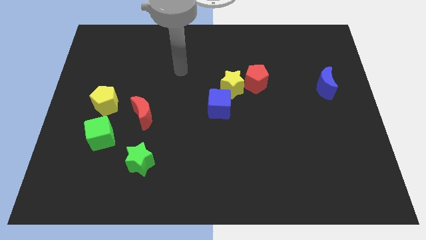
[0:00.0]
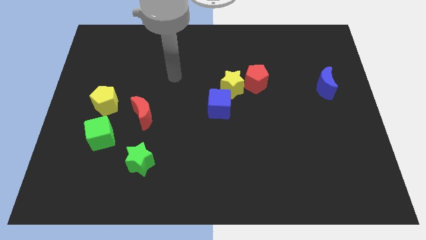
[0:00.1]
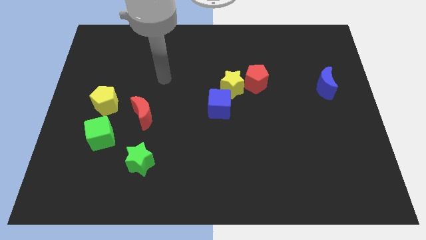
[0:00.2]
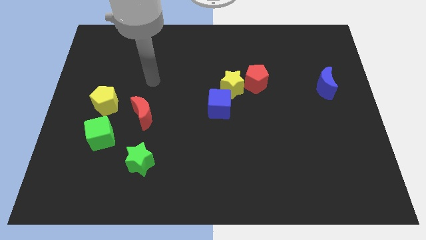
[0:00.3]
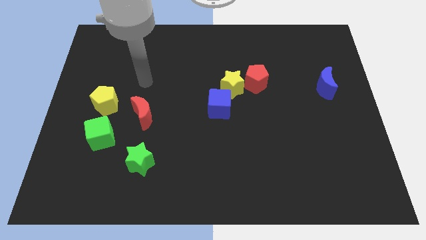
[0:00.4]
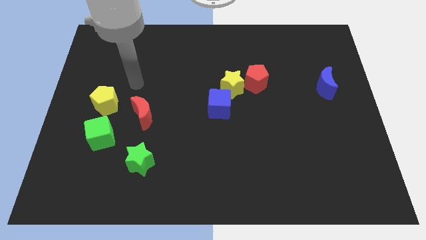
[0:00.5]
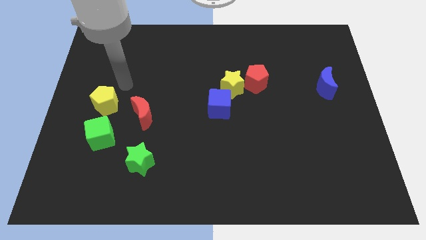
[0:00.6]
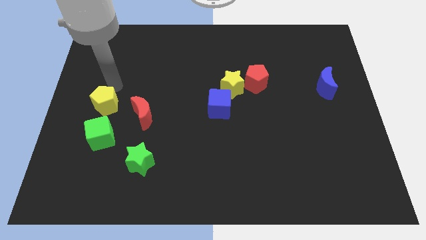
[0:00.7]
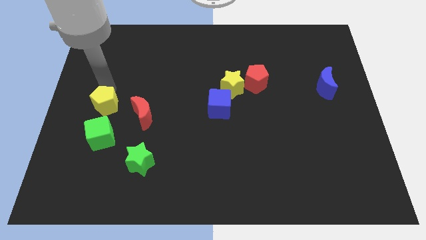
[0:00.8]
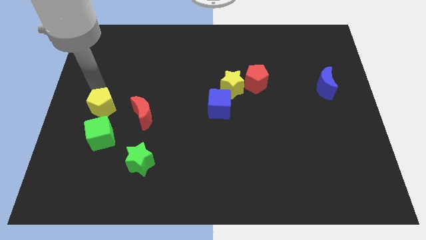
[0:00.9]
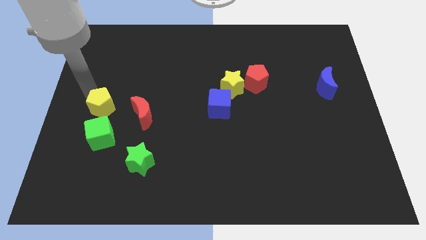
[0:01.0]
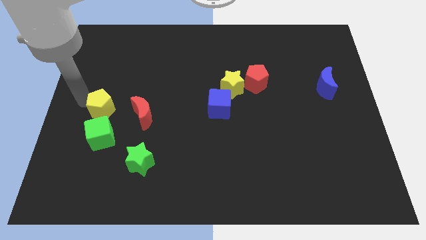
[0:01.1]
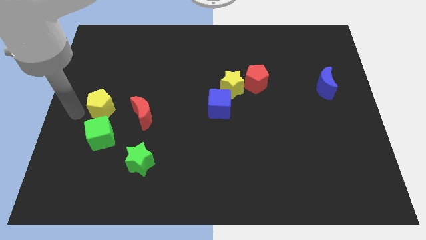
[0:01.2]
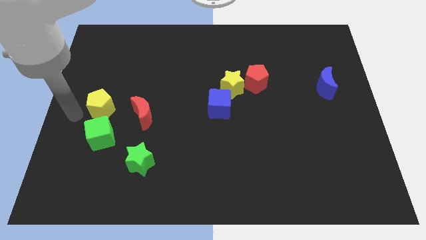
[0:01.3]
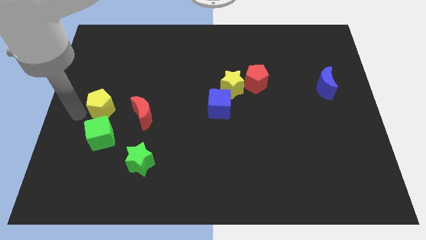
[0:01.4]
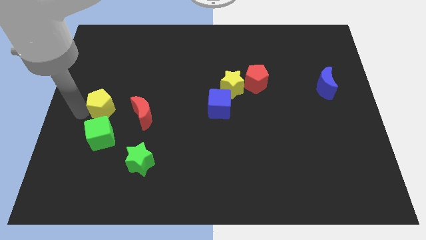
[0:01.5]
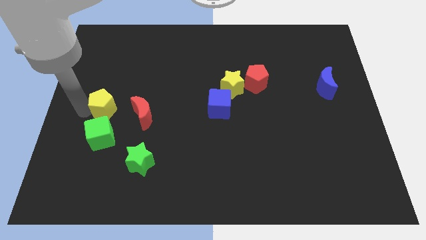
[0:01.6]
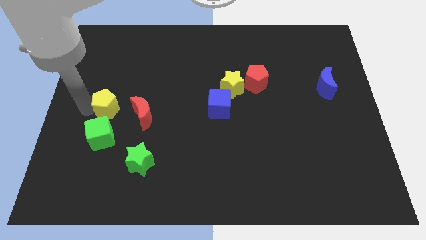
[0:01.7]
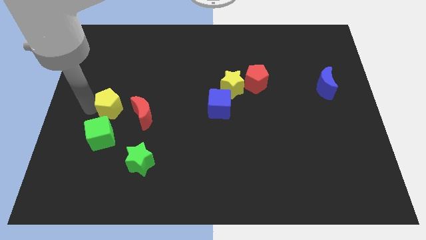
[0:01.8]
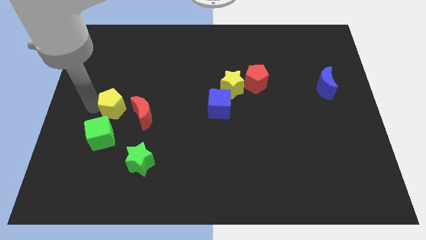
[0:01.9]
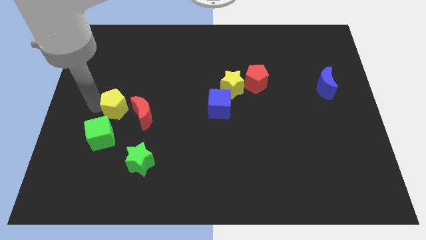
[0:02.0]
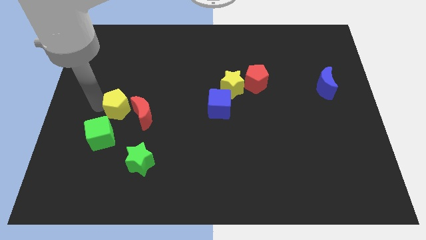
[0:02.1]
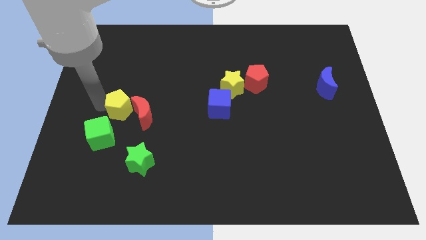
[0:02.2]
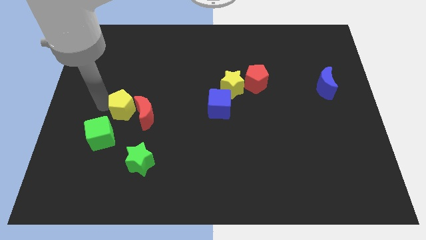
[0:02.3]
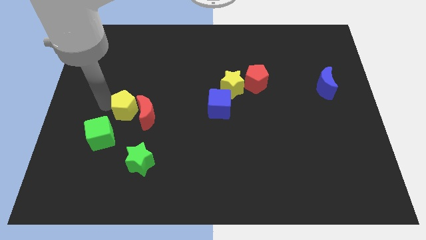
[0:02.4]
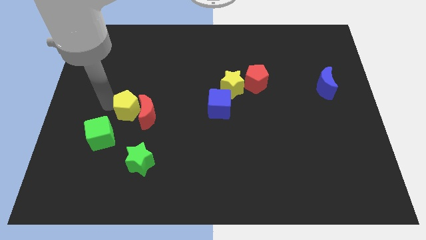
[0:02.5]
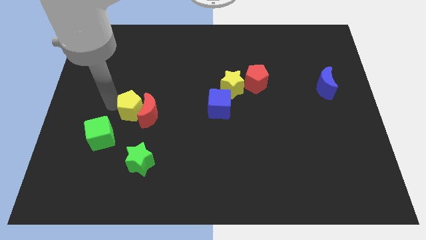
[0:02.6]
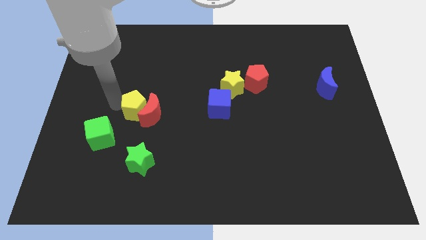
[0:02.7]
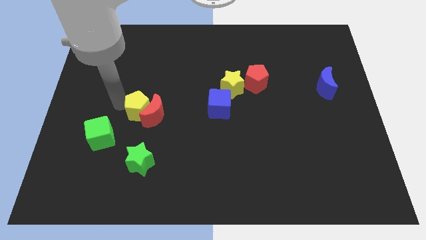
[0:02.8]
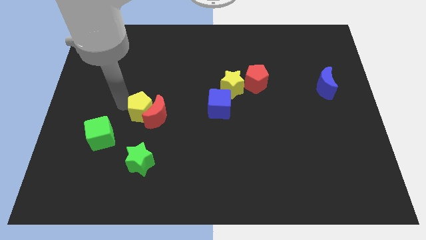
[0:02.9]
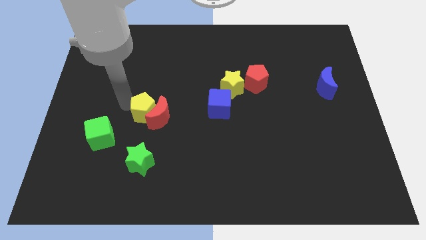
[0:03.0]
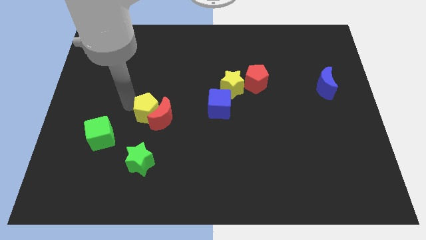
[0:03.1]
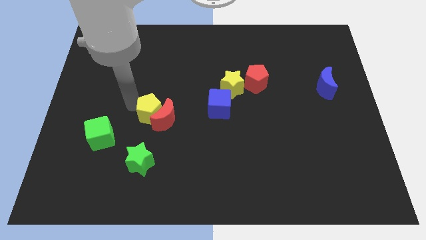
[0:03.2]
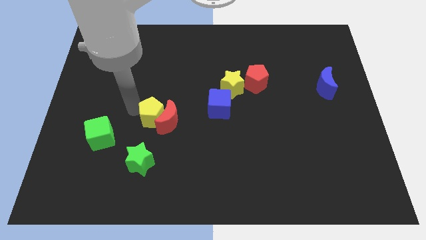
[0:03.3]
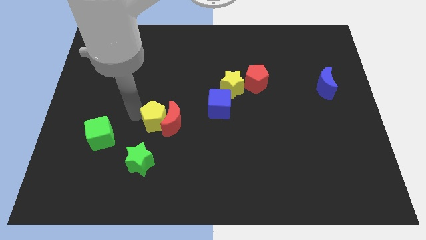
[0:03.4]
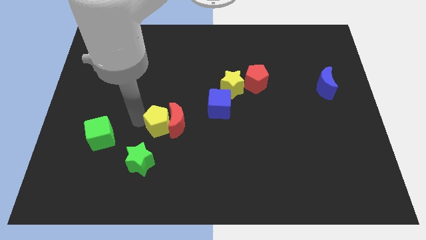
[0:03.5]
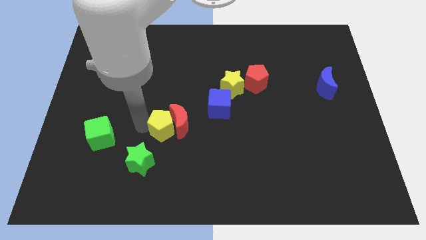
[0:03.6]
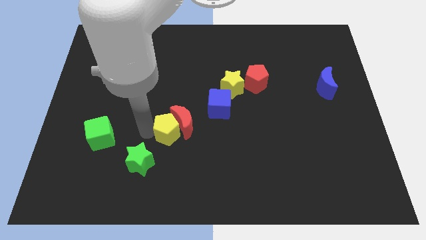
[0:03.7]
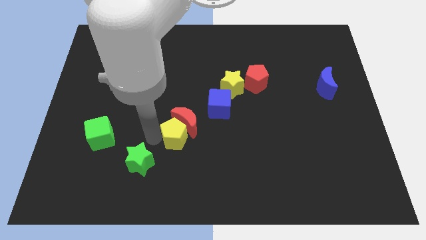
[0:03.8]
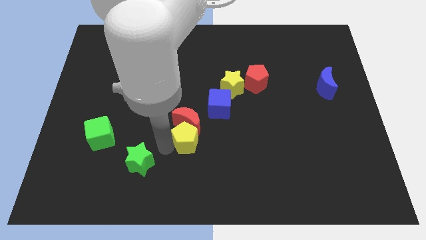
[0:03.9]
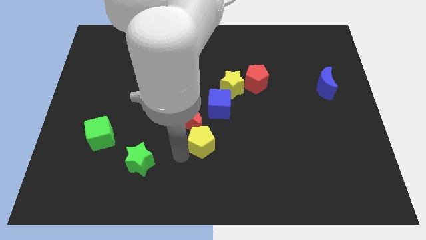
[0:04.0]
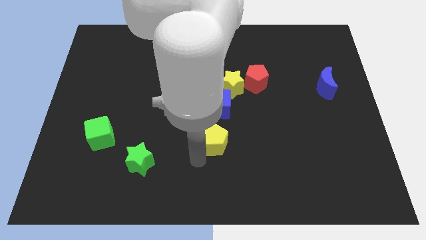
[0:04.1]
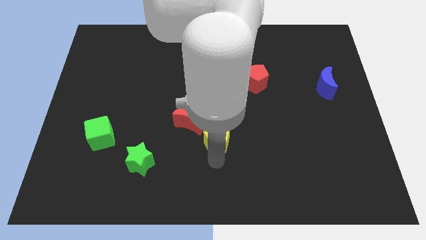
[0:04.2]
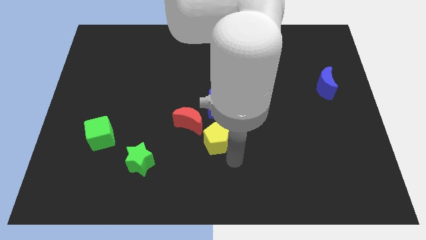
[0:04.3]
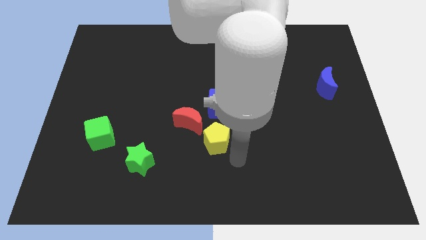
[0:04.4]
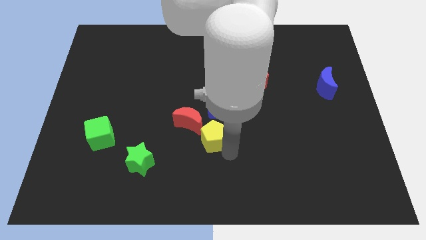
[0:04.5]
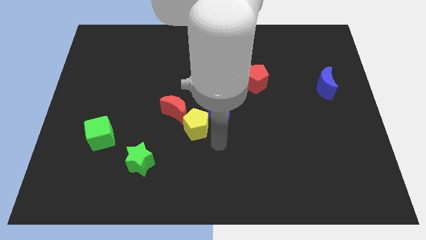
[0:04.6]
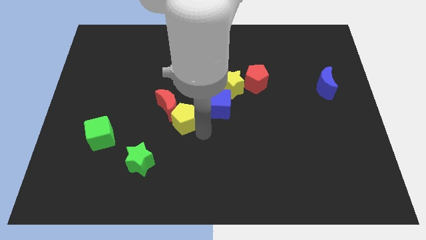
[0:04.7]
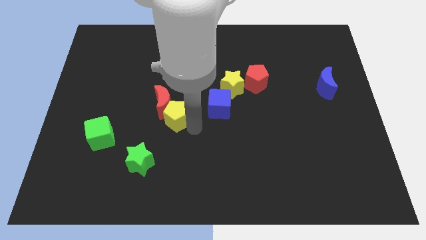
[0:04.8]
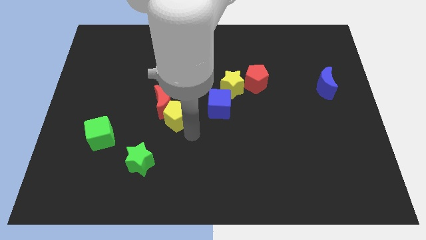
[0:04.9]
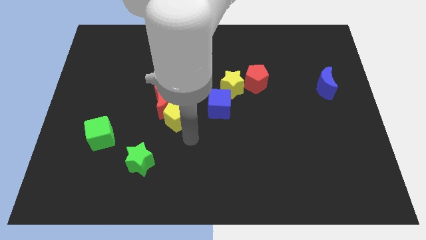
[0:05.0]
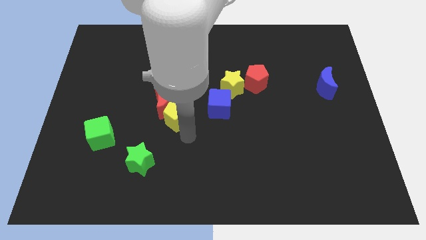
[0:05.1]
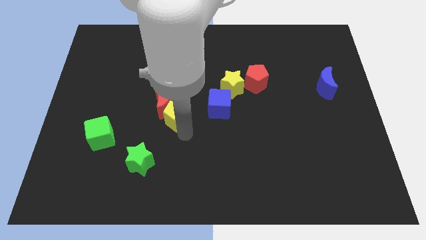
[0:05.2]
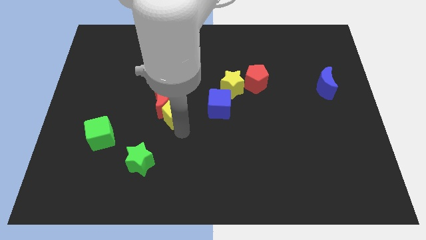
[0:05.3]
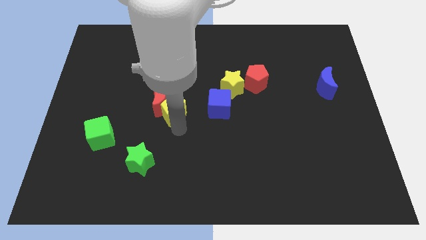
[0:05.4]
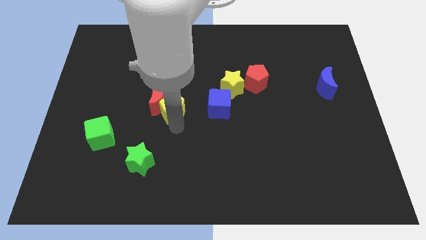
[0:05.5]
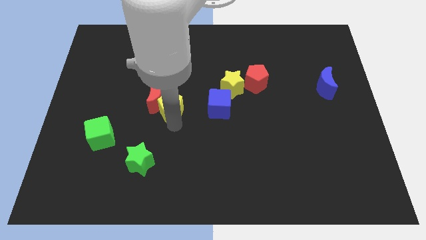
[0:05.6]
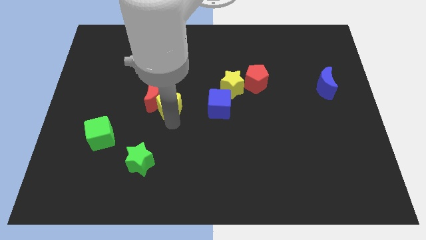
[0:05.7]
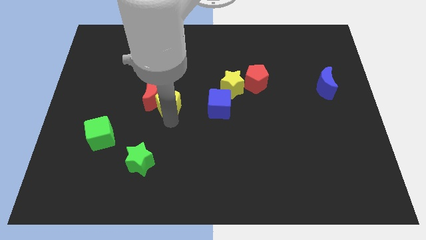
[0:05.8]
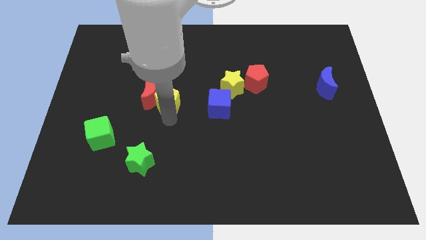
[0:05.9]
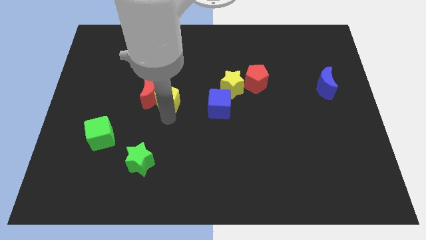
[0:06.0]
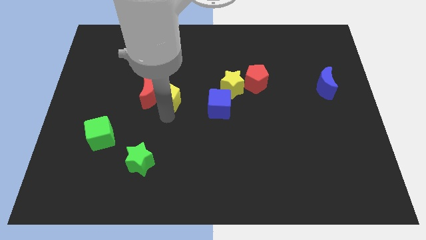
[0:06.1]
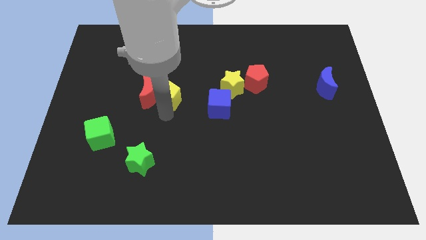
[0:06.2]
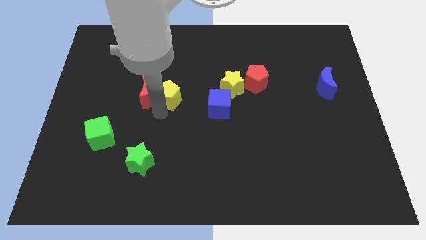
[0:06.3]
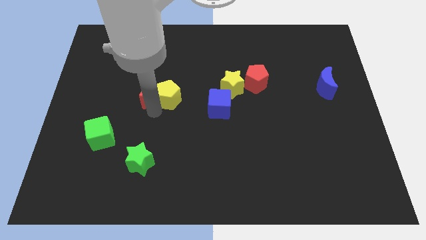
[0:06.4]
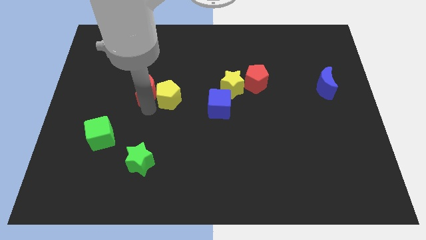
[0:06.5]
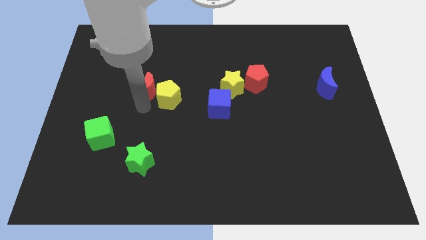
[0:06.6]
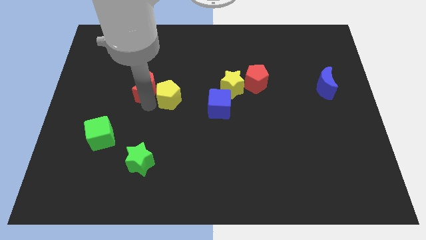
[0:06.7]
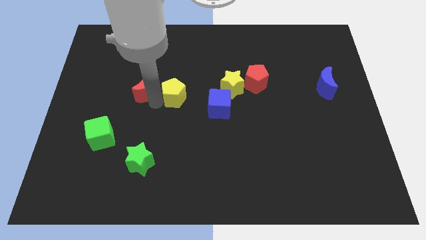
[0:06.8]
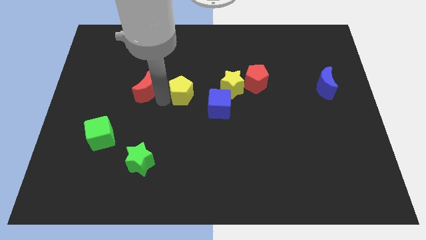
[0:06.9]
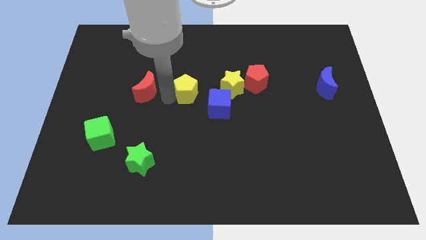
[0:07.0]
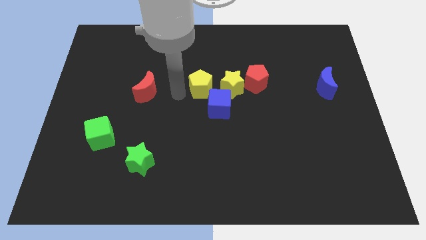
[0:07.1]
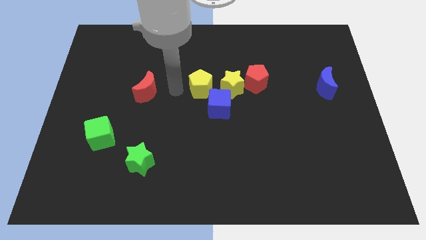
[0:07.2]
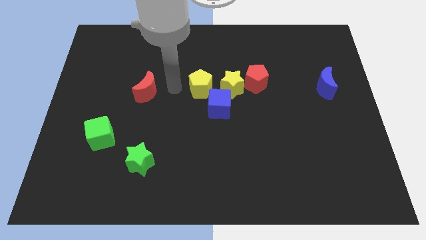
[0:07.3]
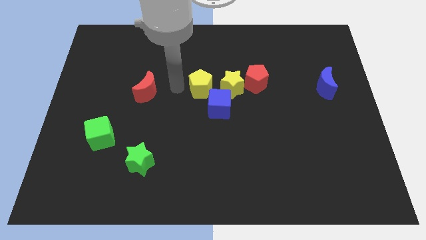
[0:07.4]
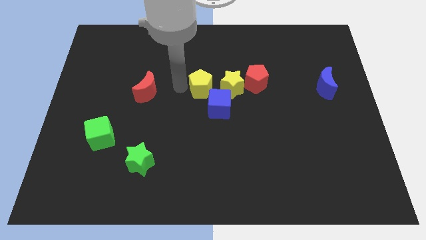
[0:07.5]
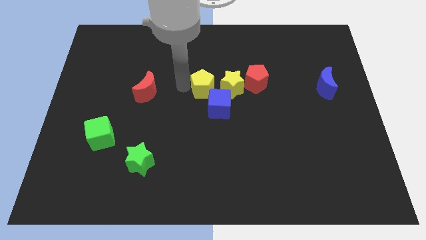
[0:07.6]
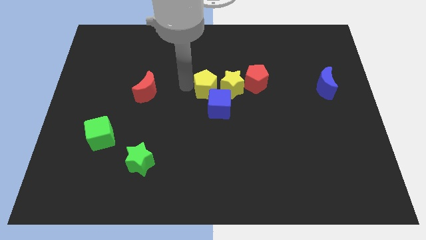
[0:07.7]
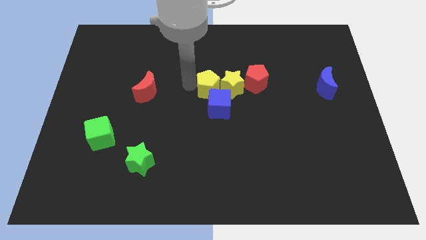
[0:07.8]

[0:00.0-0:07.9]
move the yellow pentagon close to the yellow star
